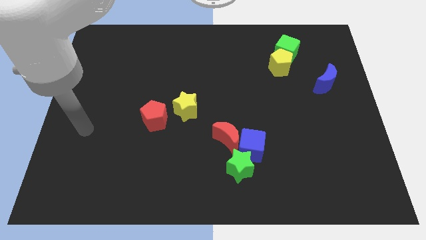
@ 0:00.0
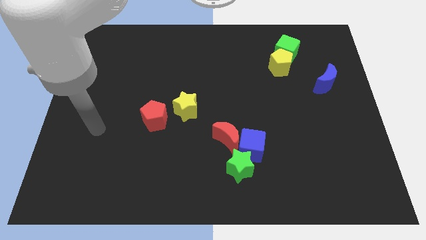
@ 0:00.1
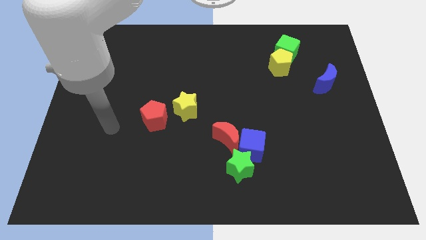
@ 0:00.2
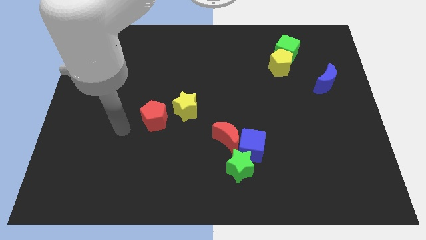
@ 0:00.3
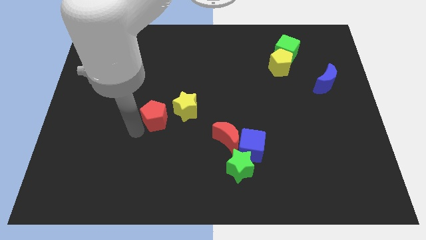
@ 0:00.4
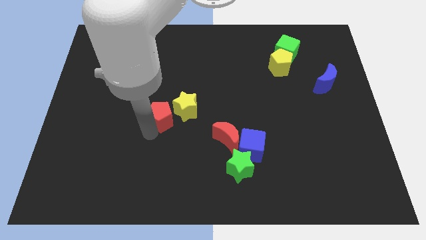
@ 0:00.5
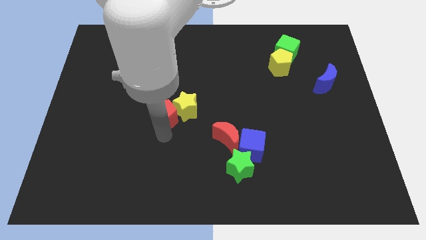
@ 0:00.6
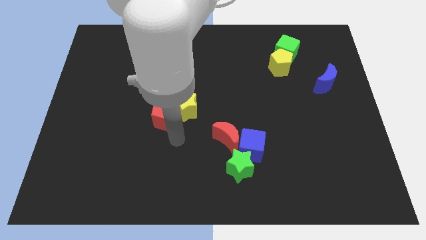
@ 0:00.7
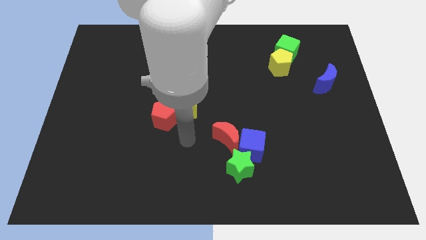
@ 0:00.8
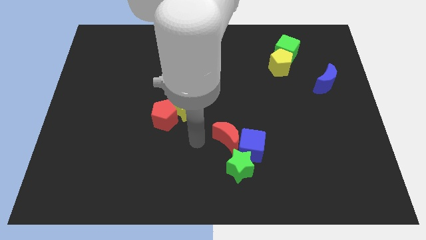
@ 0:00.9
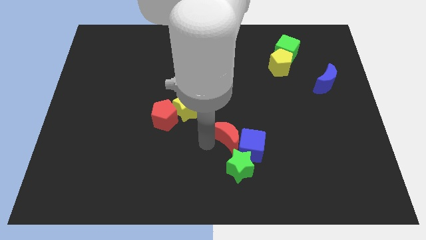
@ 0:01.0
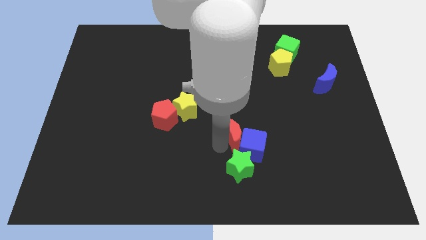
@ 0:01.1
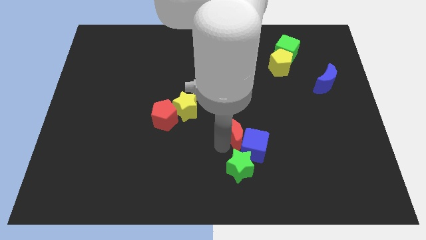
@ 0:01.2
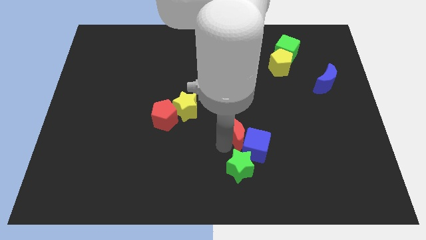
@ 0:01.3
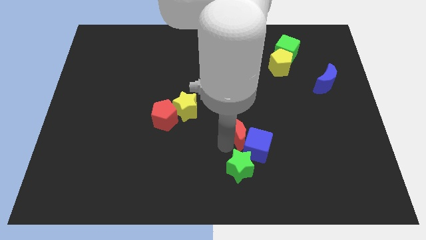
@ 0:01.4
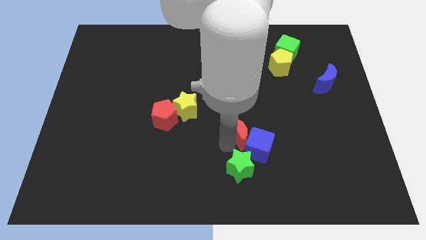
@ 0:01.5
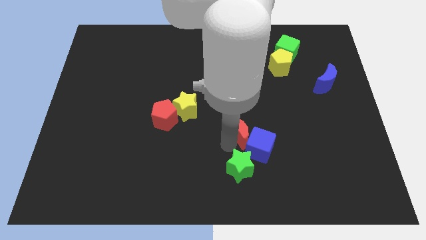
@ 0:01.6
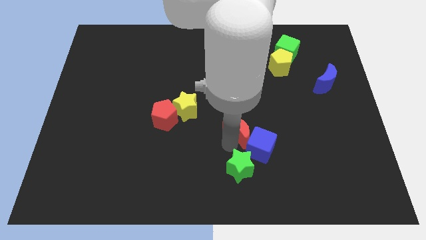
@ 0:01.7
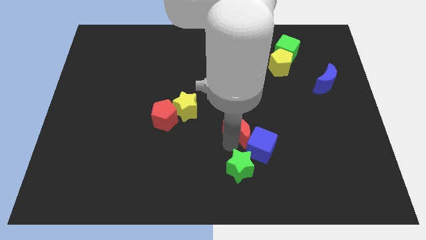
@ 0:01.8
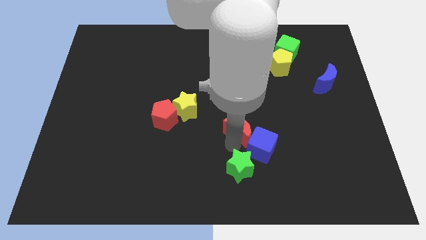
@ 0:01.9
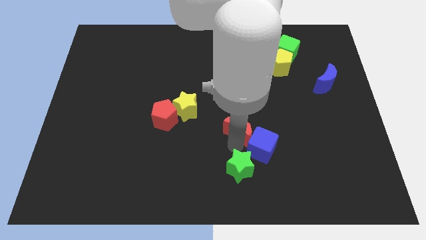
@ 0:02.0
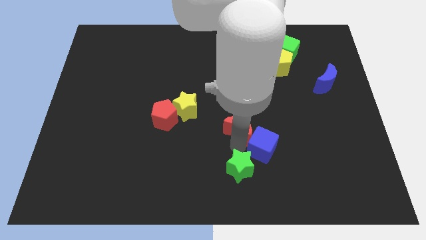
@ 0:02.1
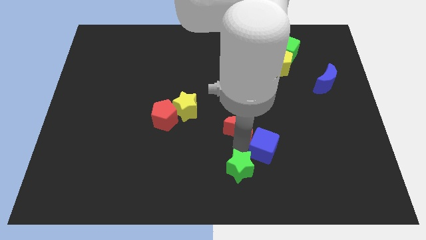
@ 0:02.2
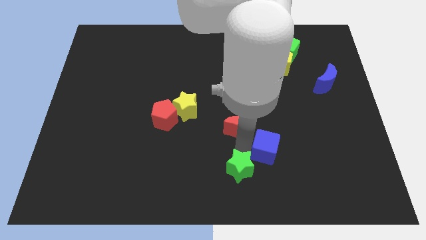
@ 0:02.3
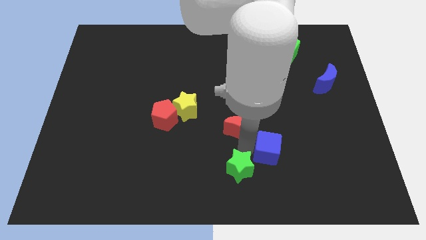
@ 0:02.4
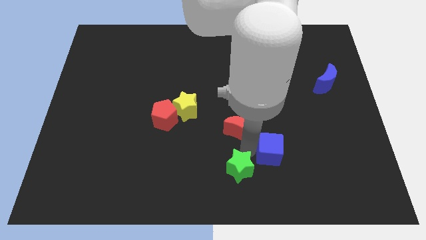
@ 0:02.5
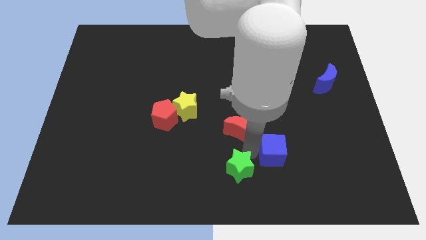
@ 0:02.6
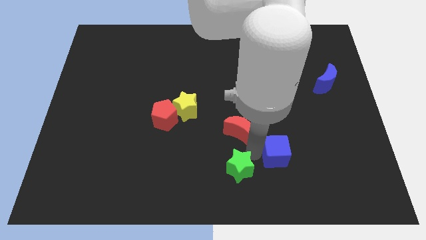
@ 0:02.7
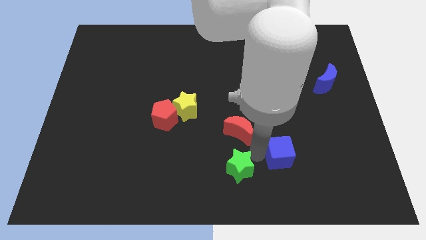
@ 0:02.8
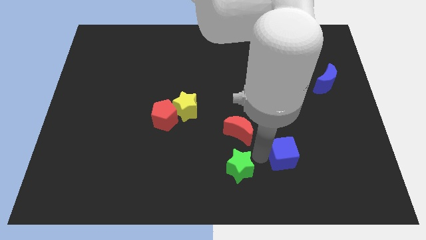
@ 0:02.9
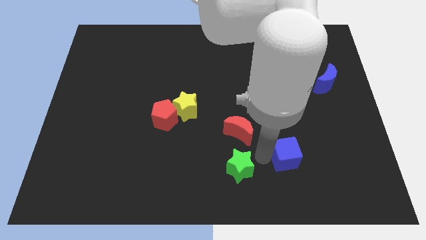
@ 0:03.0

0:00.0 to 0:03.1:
move the blue cube right a little bit

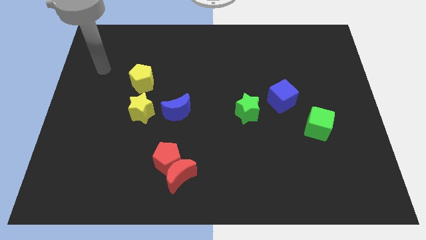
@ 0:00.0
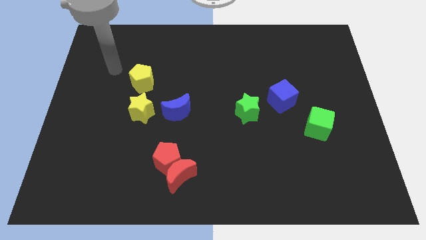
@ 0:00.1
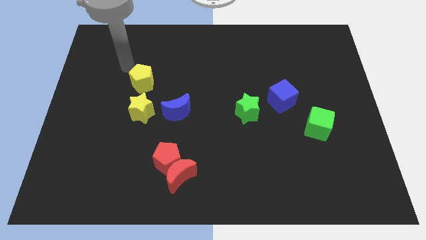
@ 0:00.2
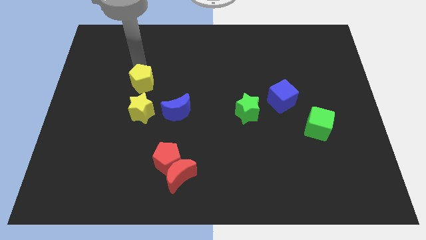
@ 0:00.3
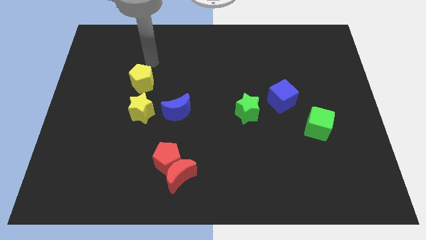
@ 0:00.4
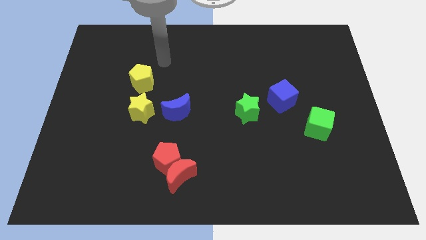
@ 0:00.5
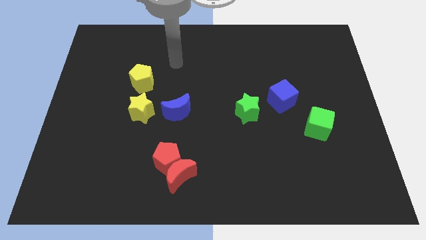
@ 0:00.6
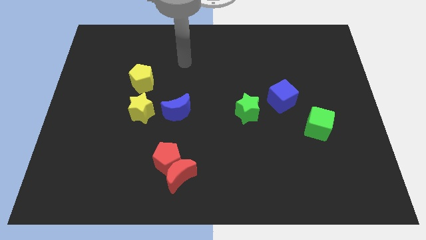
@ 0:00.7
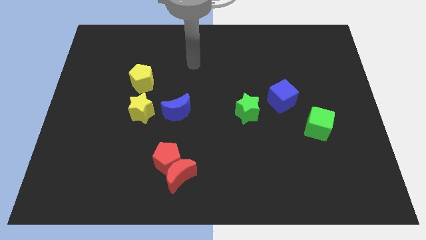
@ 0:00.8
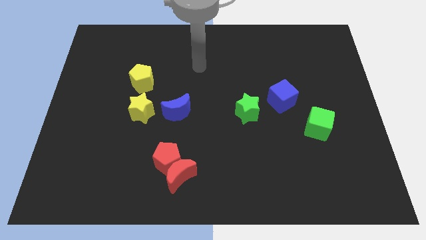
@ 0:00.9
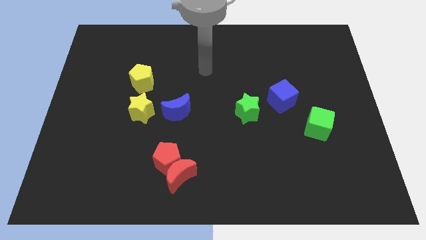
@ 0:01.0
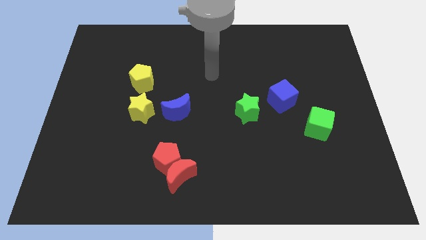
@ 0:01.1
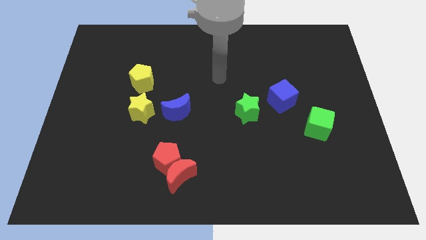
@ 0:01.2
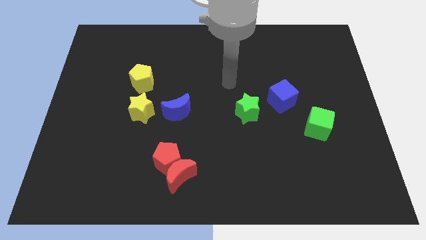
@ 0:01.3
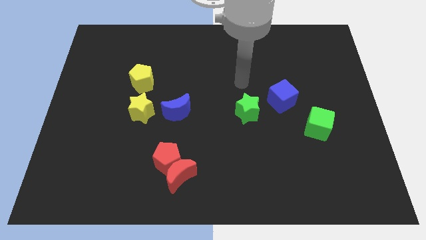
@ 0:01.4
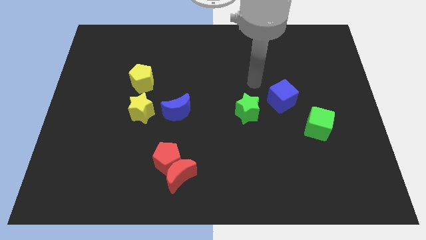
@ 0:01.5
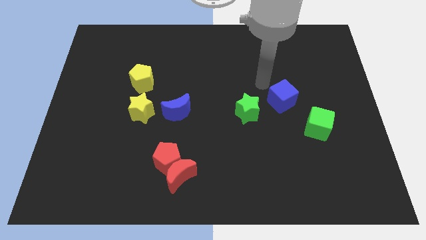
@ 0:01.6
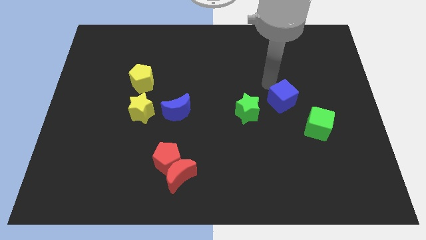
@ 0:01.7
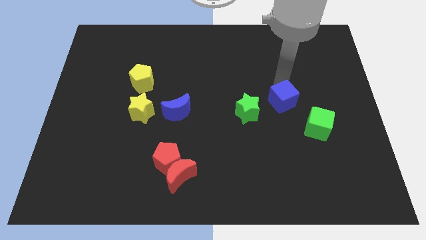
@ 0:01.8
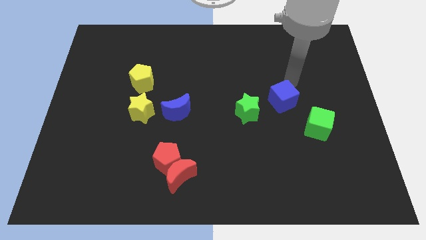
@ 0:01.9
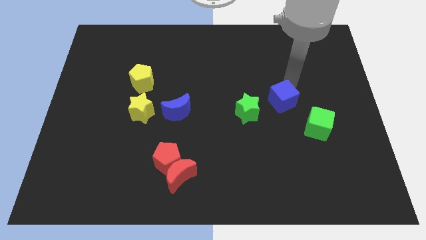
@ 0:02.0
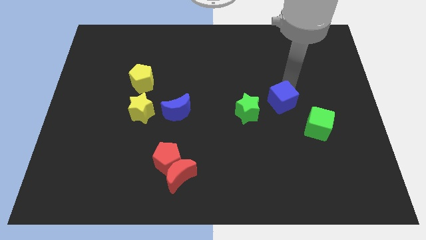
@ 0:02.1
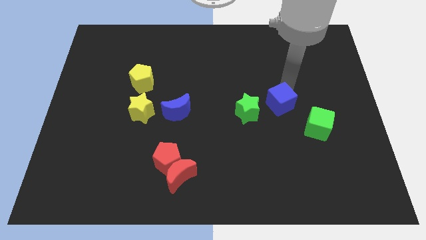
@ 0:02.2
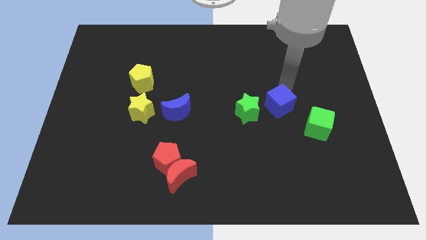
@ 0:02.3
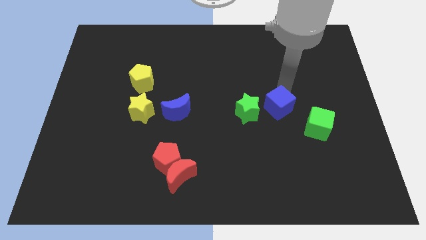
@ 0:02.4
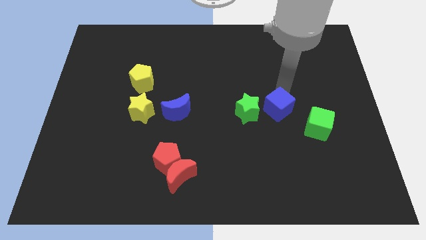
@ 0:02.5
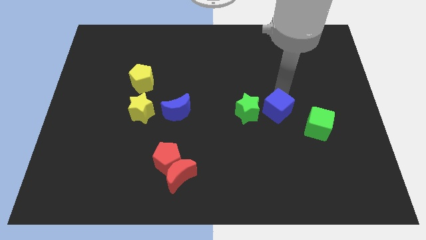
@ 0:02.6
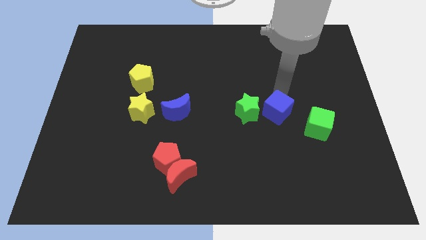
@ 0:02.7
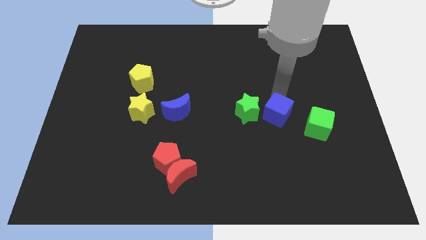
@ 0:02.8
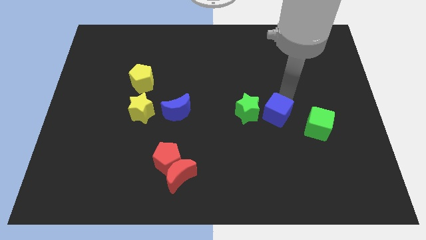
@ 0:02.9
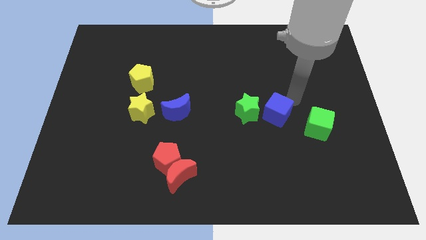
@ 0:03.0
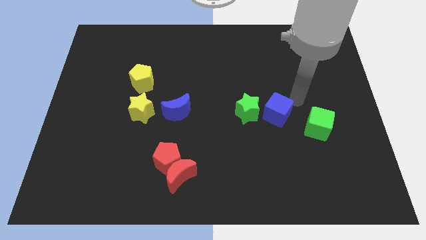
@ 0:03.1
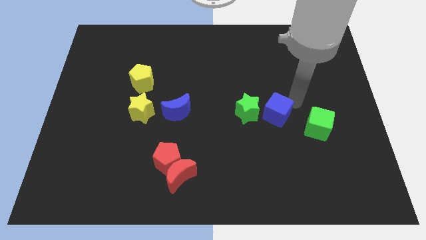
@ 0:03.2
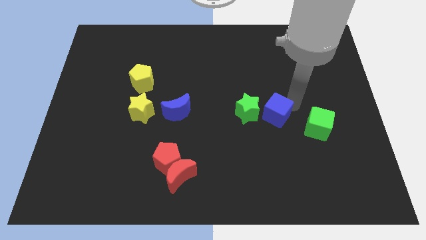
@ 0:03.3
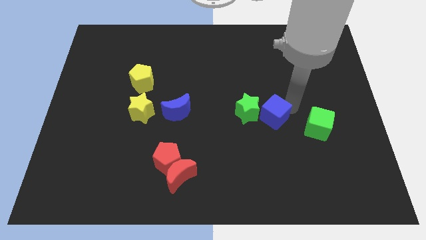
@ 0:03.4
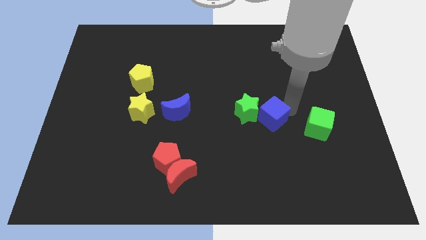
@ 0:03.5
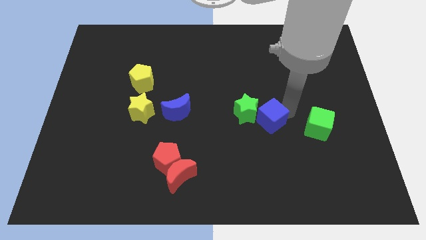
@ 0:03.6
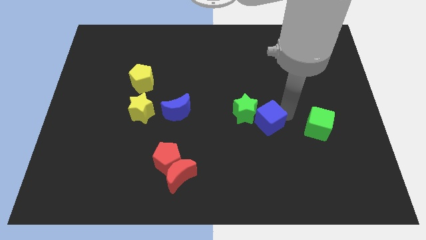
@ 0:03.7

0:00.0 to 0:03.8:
slightly push the blue cube downwards and left

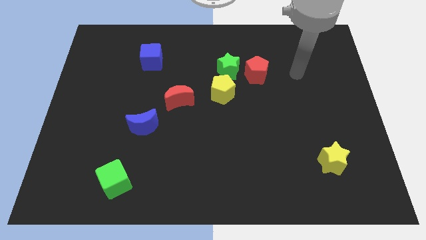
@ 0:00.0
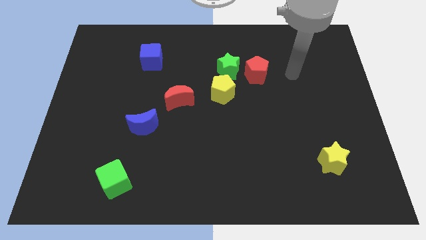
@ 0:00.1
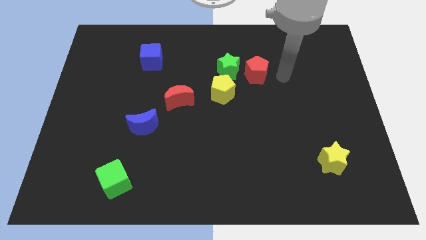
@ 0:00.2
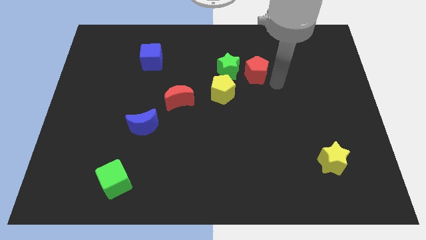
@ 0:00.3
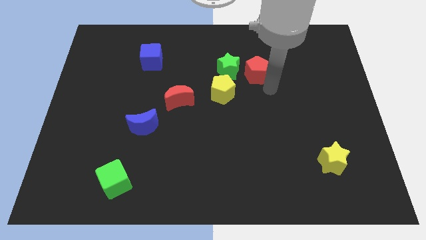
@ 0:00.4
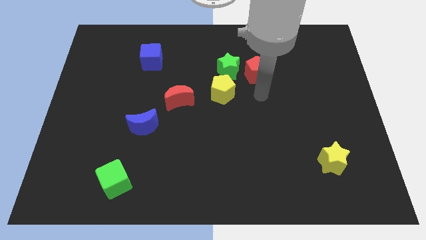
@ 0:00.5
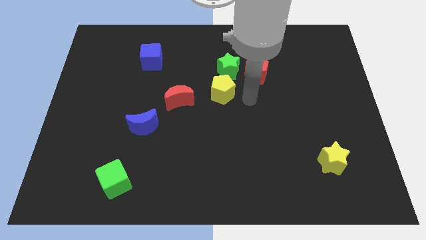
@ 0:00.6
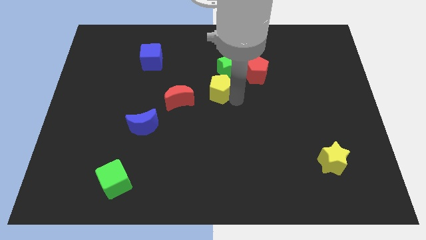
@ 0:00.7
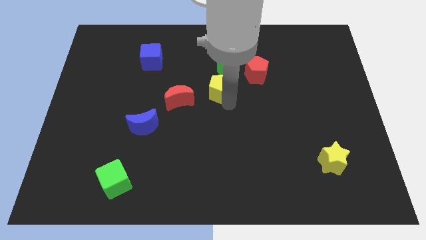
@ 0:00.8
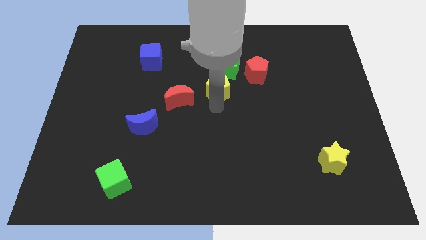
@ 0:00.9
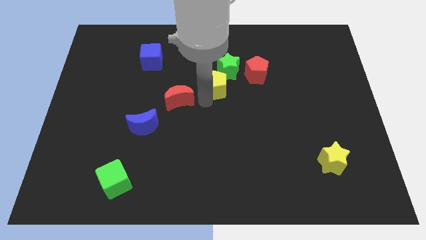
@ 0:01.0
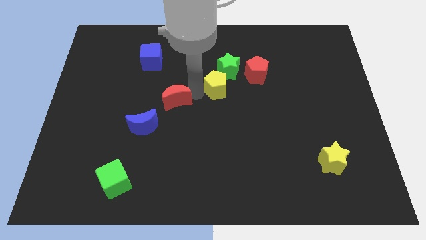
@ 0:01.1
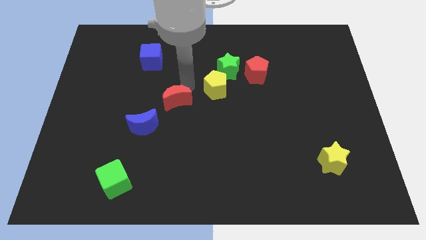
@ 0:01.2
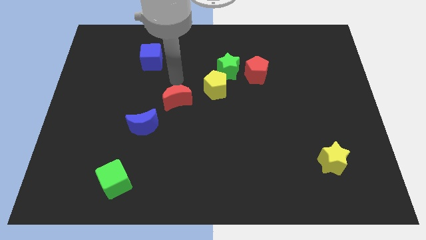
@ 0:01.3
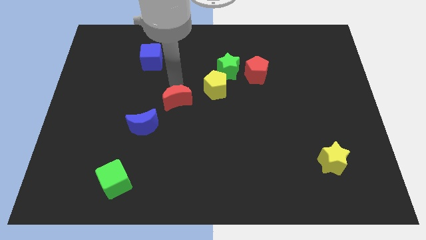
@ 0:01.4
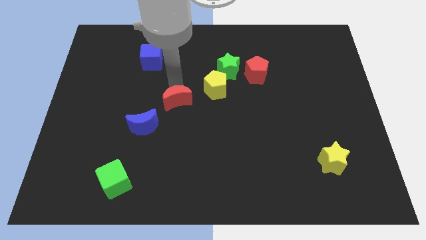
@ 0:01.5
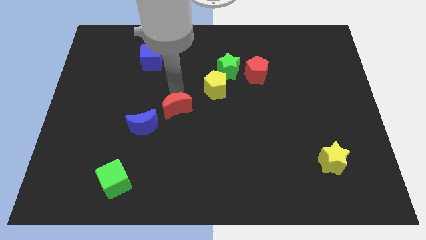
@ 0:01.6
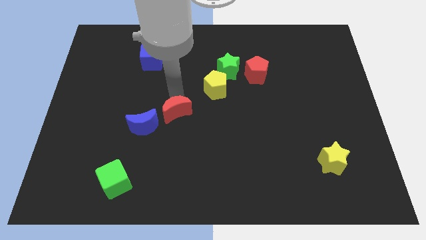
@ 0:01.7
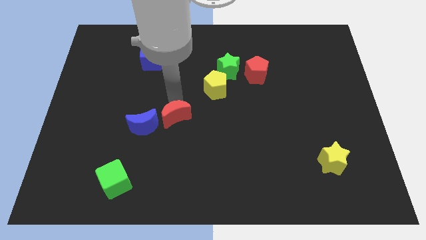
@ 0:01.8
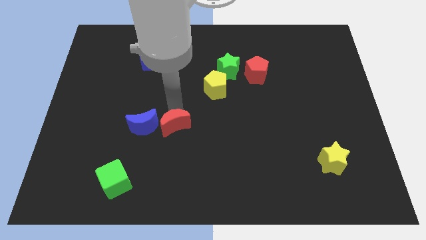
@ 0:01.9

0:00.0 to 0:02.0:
slightly move the red moon down
